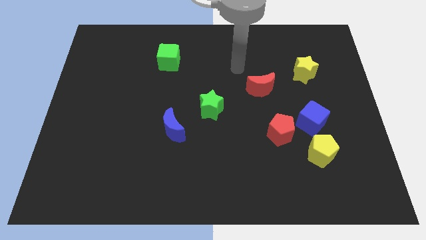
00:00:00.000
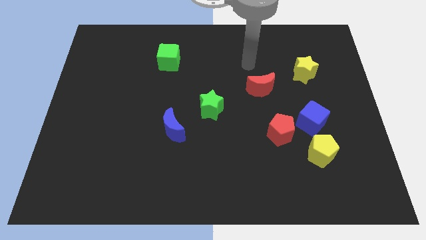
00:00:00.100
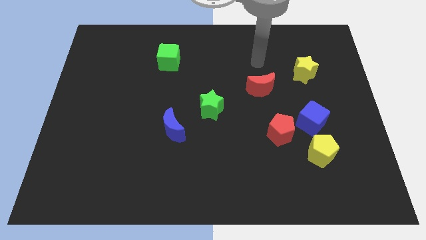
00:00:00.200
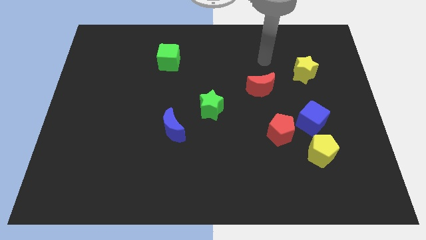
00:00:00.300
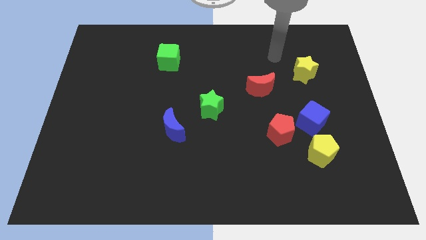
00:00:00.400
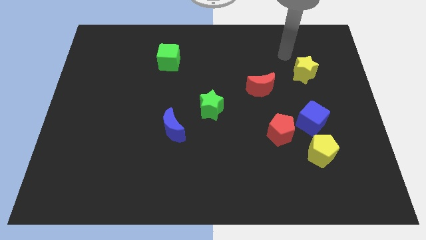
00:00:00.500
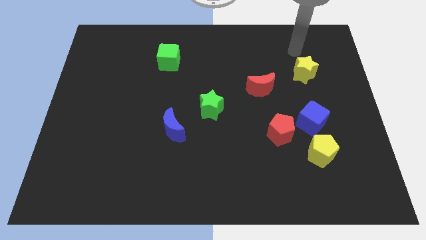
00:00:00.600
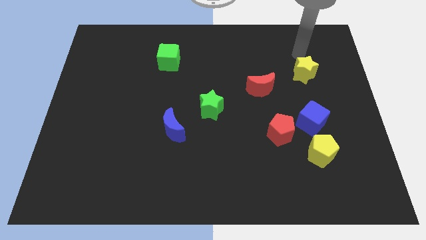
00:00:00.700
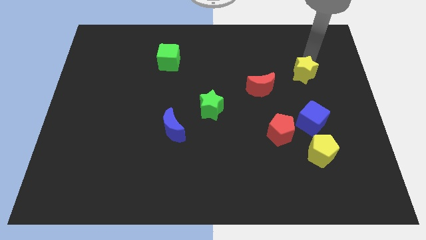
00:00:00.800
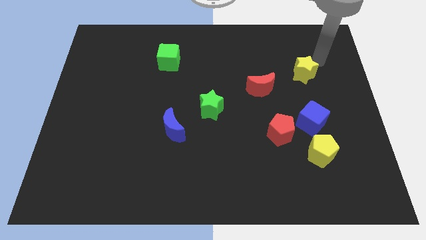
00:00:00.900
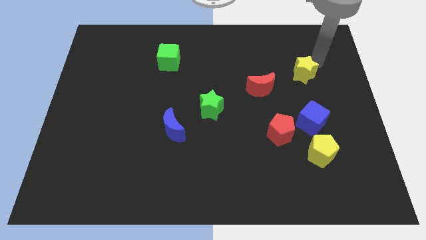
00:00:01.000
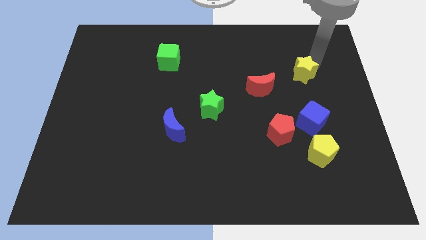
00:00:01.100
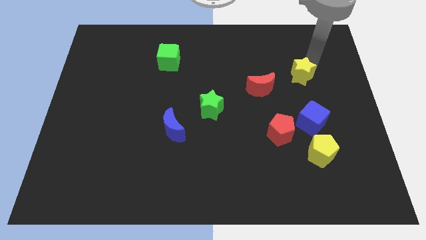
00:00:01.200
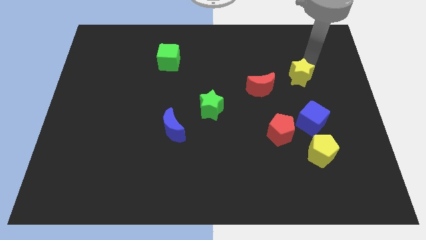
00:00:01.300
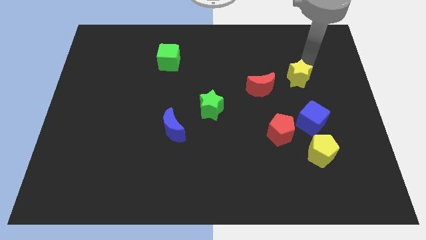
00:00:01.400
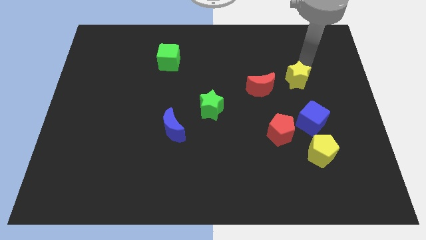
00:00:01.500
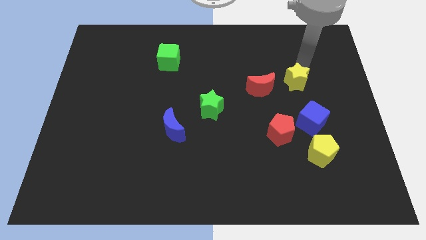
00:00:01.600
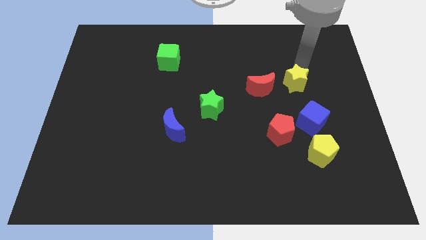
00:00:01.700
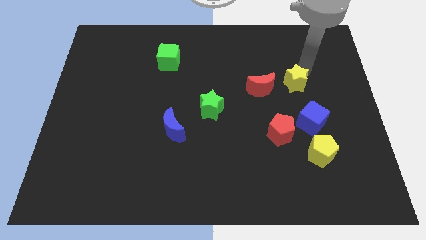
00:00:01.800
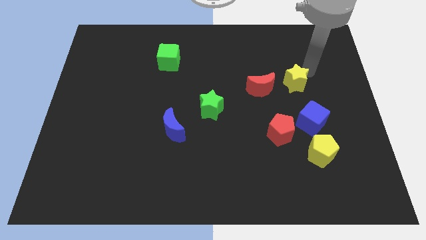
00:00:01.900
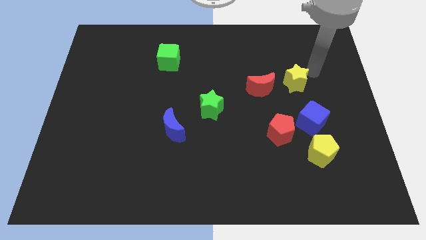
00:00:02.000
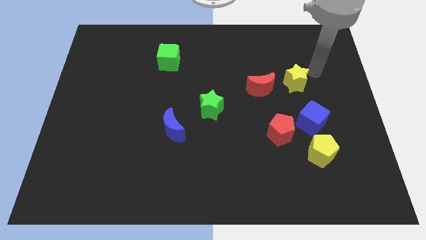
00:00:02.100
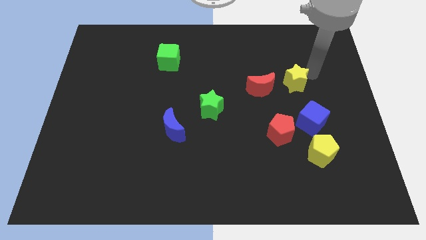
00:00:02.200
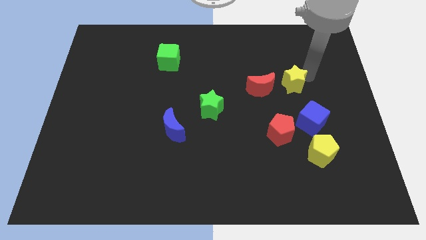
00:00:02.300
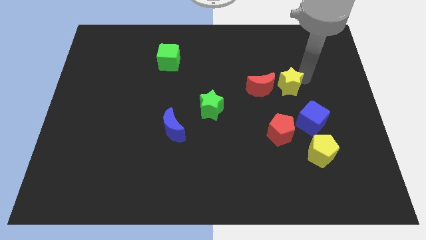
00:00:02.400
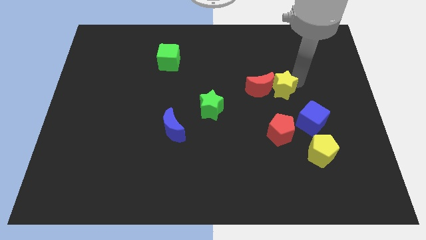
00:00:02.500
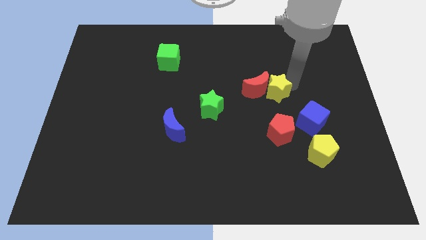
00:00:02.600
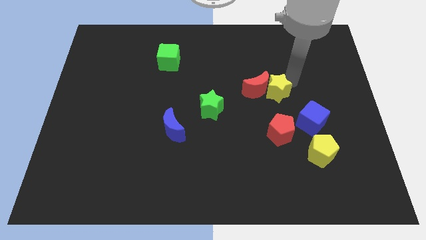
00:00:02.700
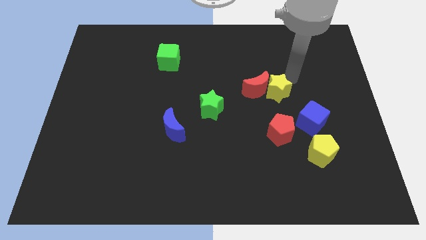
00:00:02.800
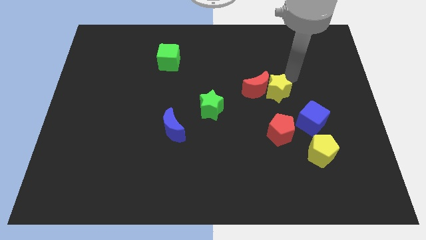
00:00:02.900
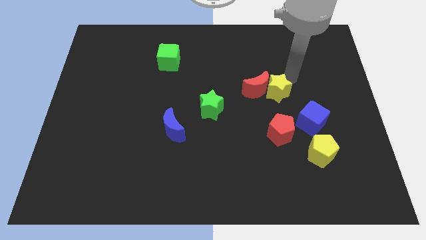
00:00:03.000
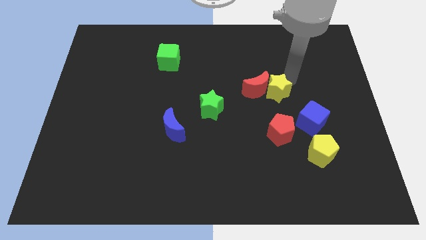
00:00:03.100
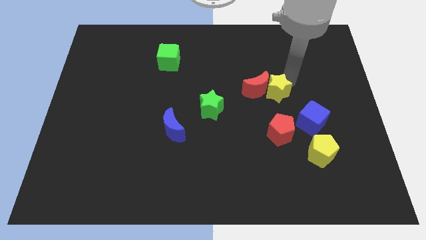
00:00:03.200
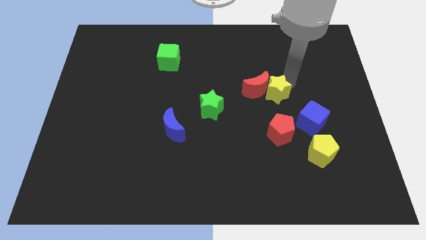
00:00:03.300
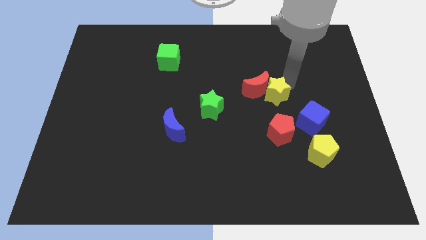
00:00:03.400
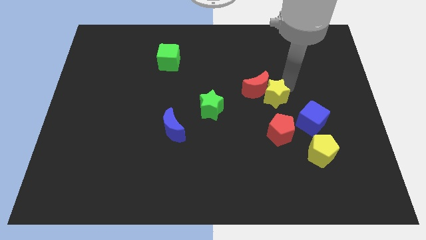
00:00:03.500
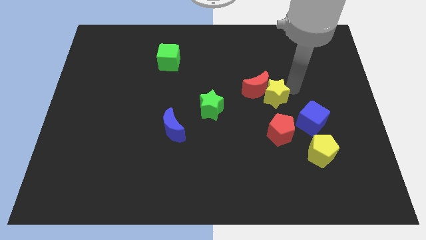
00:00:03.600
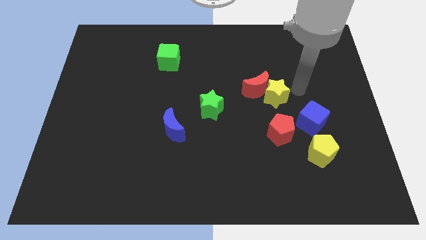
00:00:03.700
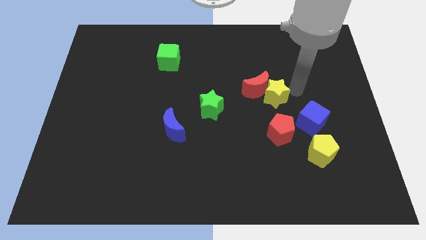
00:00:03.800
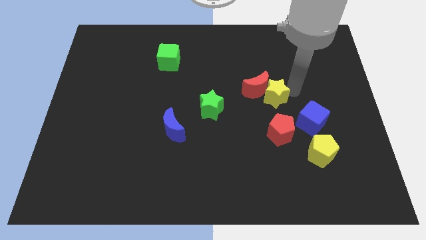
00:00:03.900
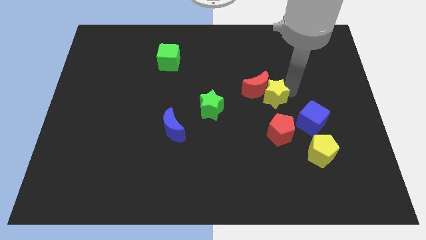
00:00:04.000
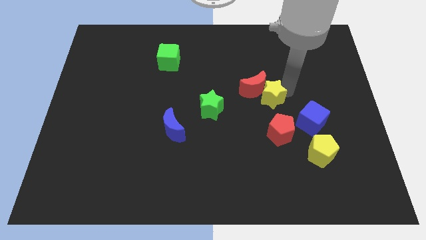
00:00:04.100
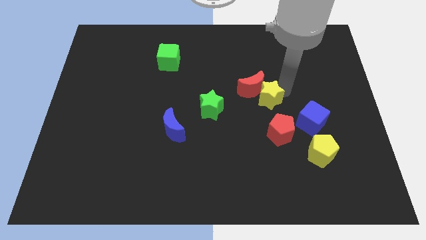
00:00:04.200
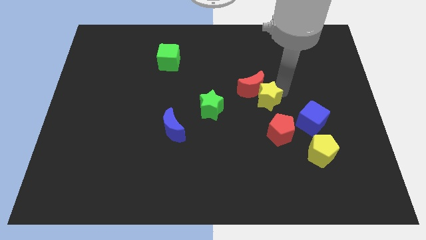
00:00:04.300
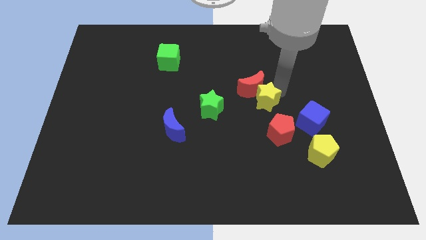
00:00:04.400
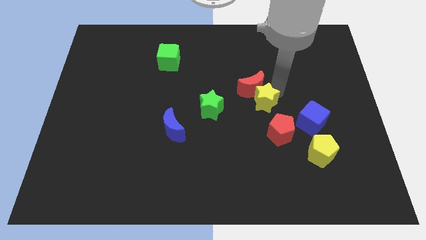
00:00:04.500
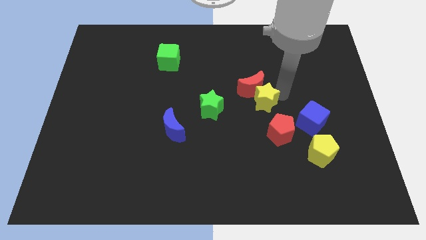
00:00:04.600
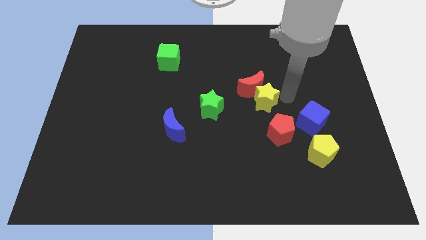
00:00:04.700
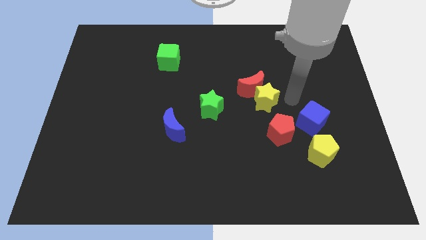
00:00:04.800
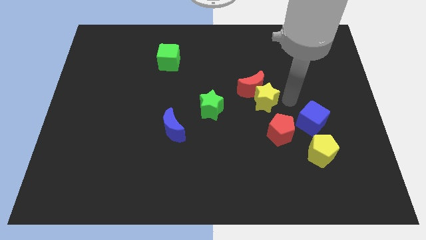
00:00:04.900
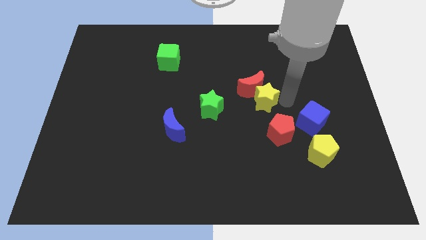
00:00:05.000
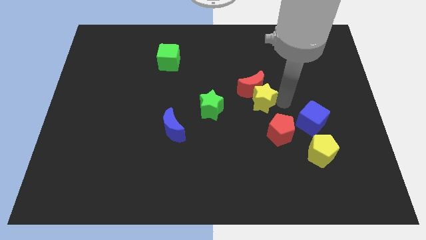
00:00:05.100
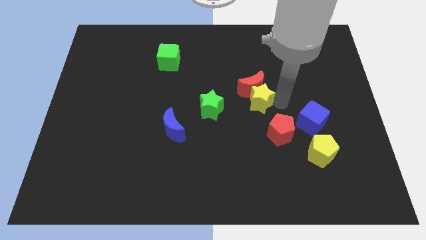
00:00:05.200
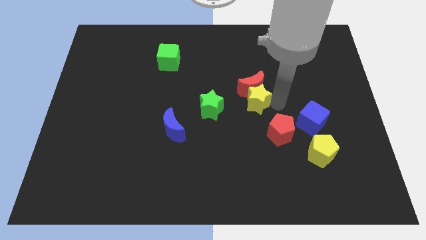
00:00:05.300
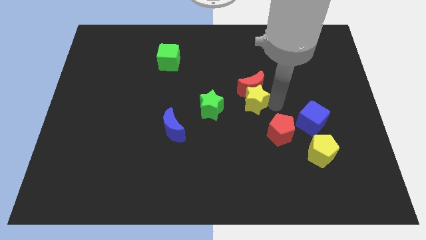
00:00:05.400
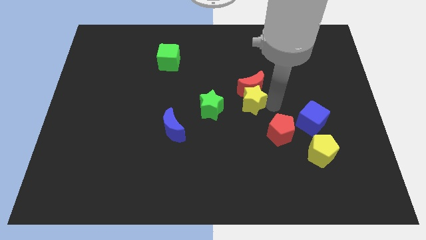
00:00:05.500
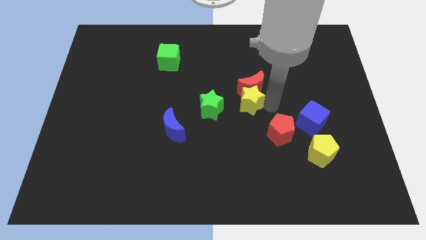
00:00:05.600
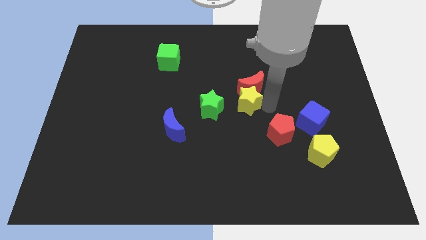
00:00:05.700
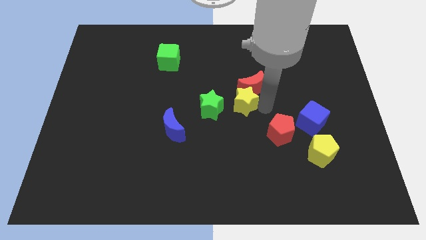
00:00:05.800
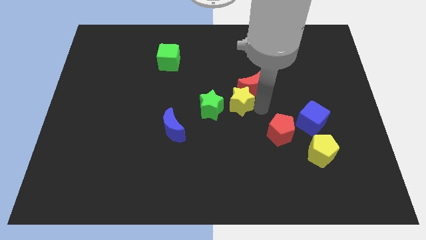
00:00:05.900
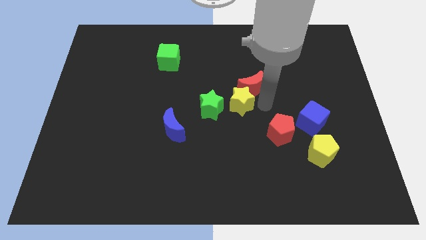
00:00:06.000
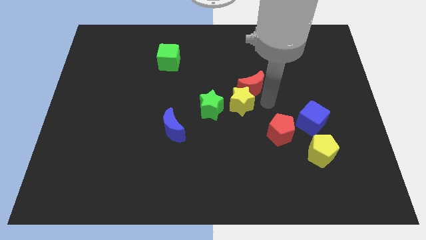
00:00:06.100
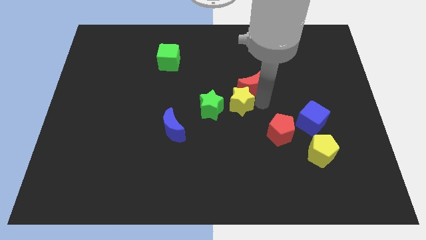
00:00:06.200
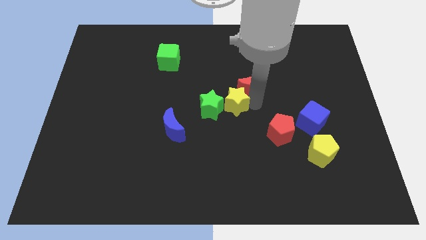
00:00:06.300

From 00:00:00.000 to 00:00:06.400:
move the yellow star to the green star
